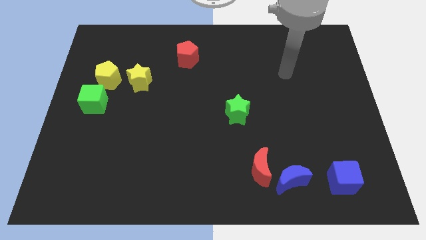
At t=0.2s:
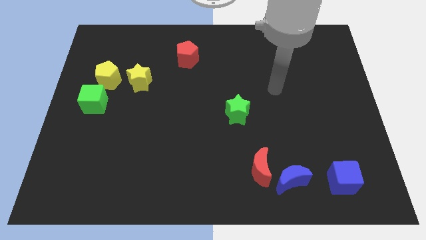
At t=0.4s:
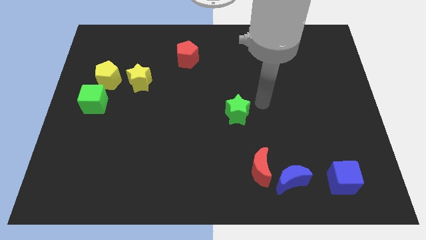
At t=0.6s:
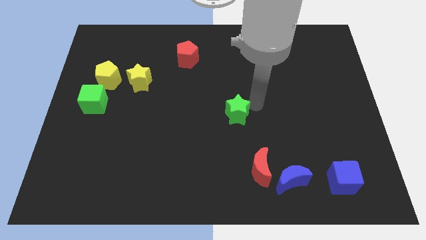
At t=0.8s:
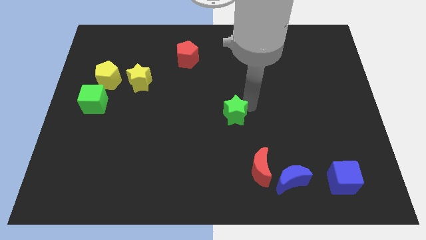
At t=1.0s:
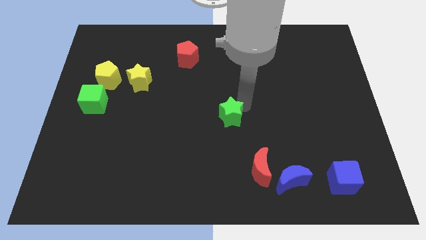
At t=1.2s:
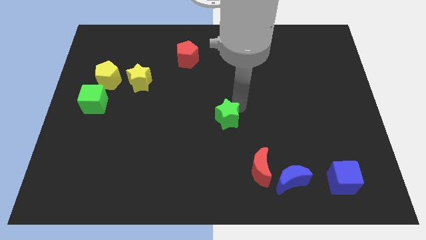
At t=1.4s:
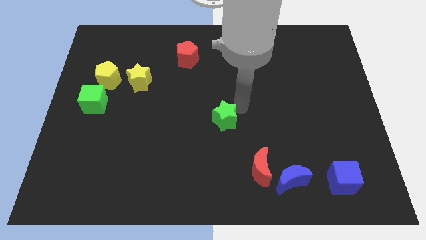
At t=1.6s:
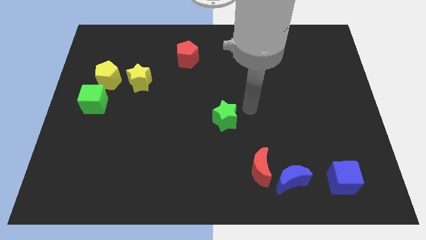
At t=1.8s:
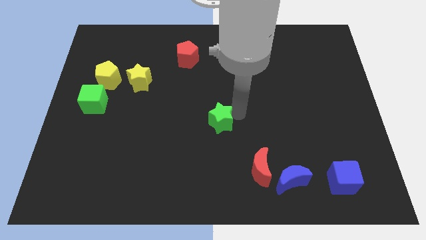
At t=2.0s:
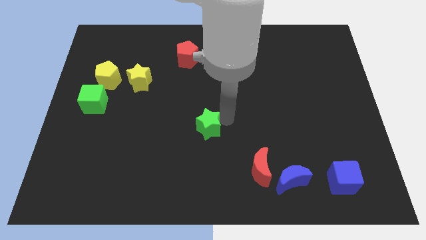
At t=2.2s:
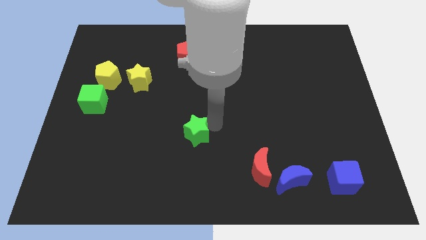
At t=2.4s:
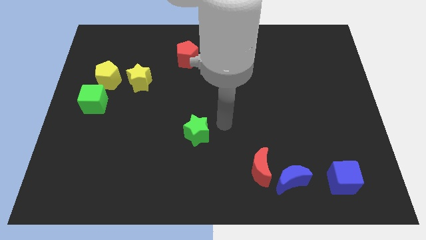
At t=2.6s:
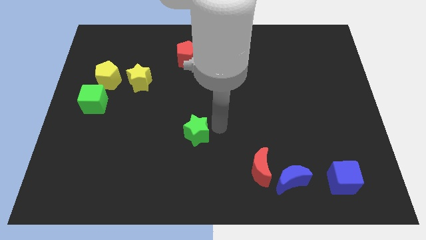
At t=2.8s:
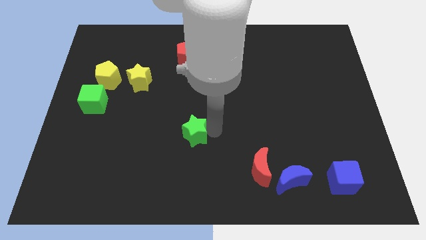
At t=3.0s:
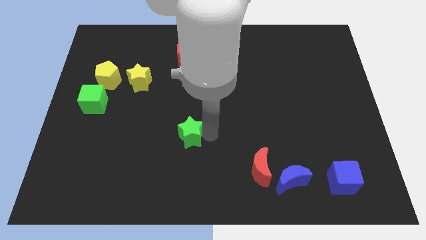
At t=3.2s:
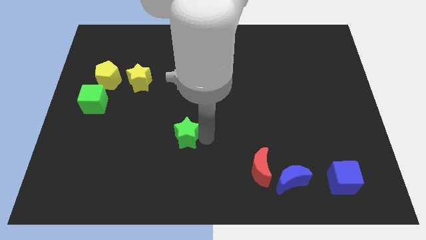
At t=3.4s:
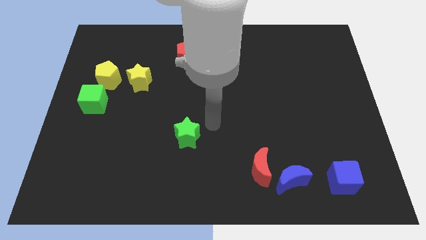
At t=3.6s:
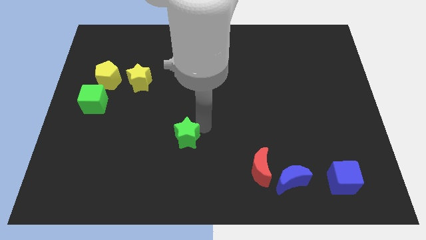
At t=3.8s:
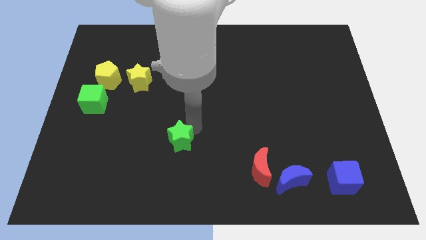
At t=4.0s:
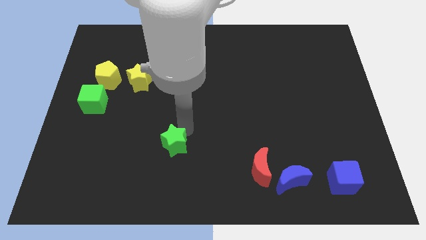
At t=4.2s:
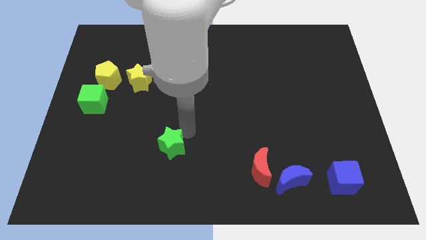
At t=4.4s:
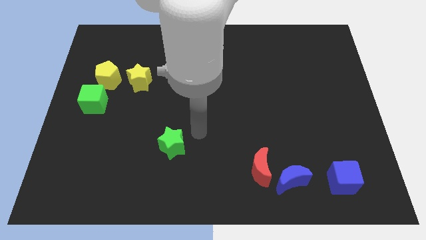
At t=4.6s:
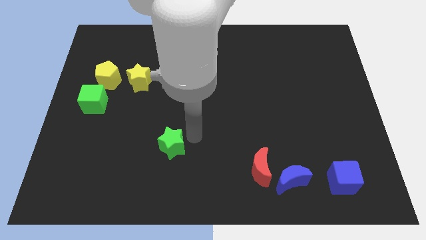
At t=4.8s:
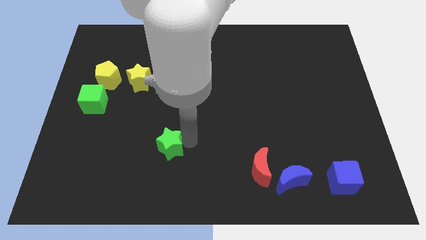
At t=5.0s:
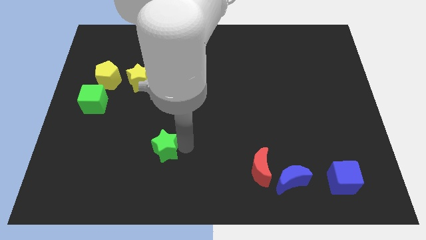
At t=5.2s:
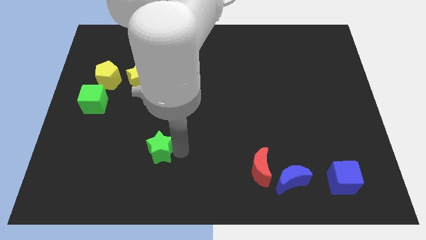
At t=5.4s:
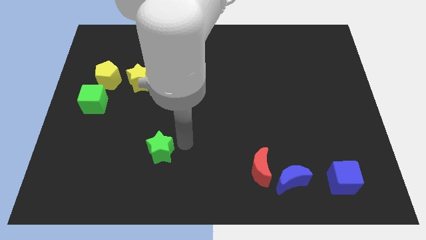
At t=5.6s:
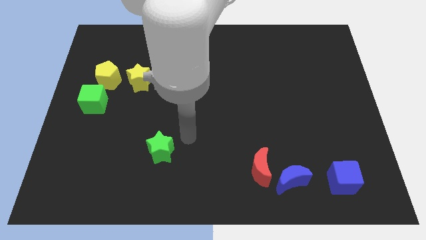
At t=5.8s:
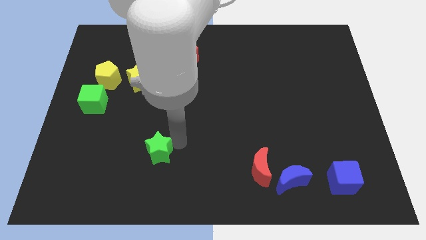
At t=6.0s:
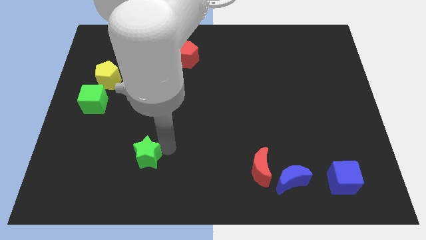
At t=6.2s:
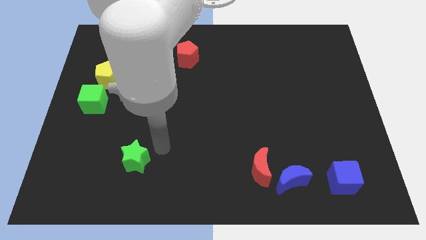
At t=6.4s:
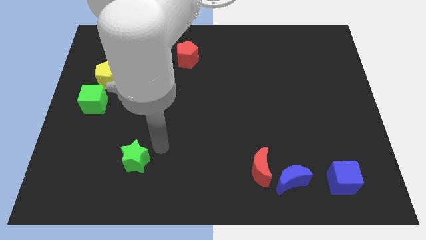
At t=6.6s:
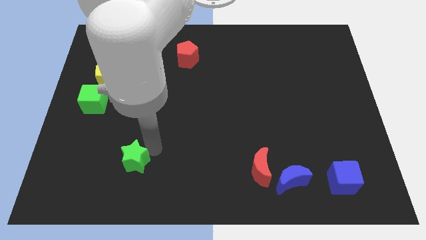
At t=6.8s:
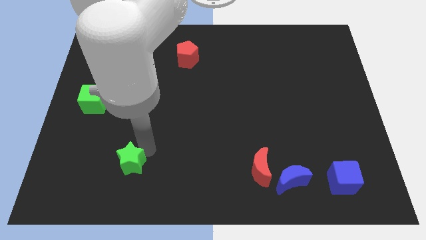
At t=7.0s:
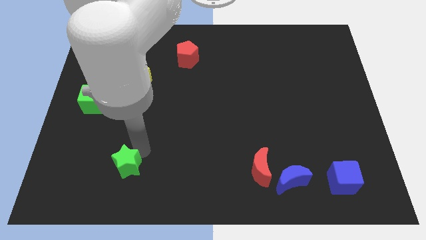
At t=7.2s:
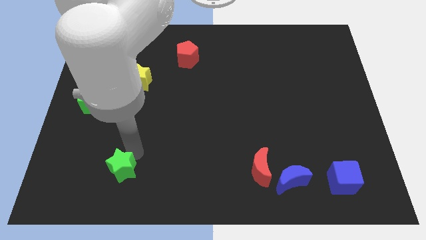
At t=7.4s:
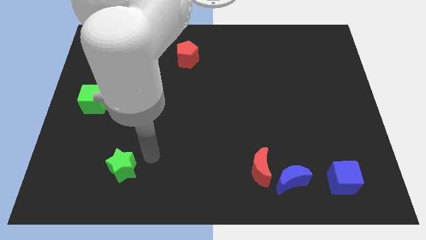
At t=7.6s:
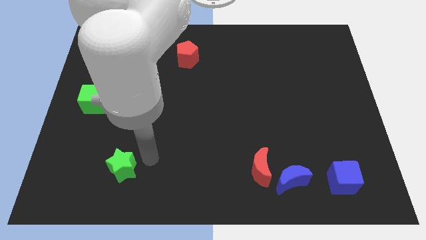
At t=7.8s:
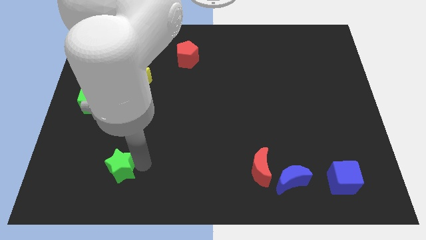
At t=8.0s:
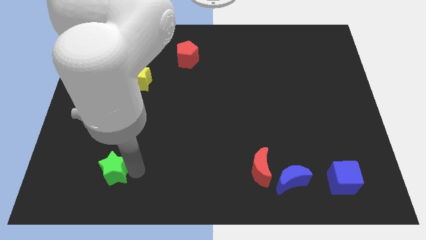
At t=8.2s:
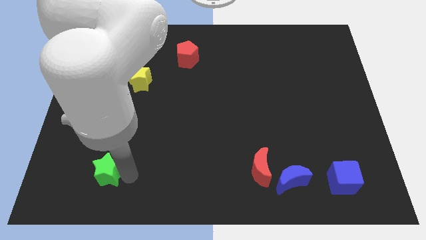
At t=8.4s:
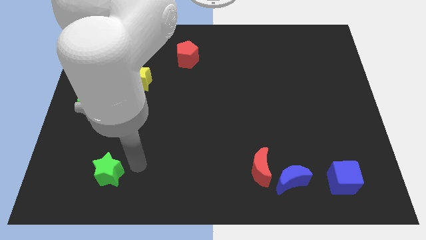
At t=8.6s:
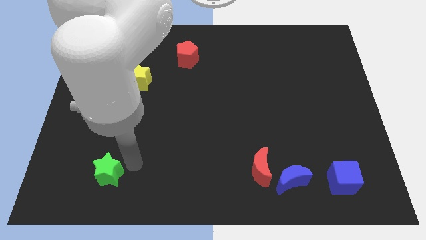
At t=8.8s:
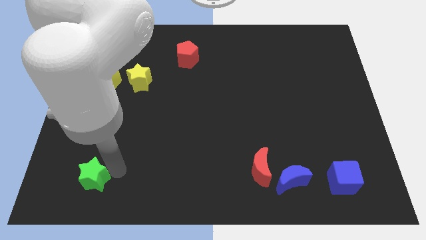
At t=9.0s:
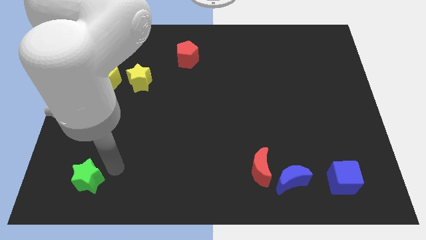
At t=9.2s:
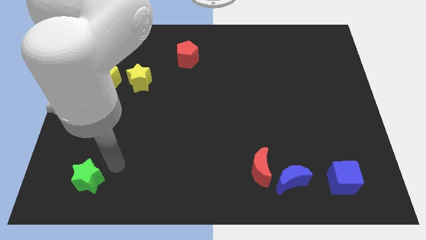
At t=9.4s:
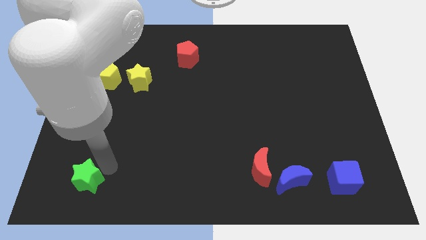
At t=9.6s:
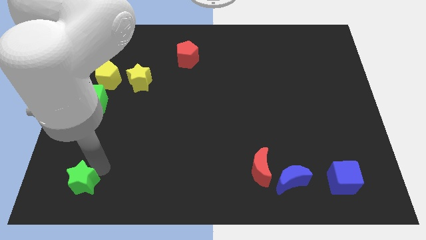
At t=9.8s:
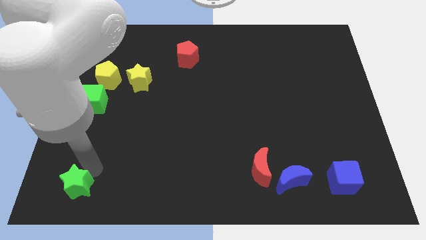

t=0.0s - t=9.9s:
put the green star to the lower left corner

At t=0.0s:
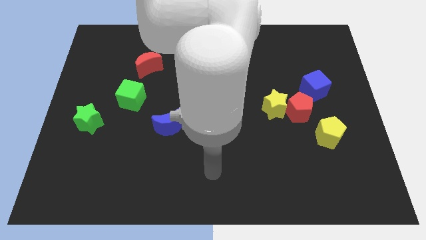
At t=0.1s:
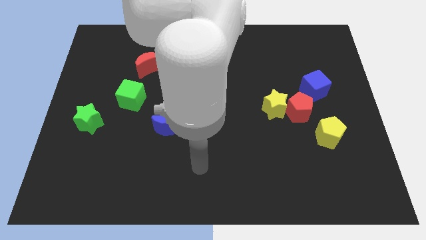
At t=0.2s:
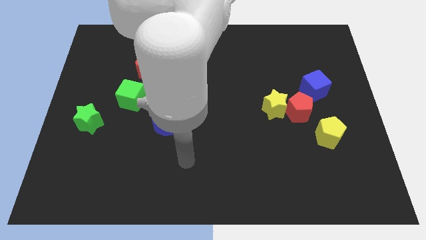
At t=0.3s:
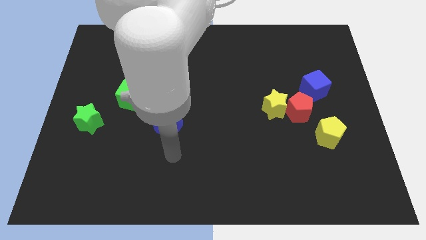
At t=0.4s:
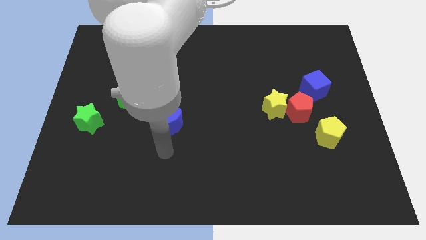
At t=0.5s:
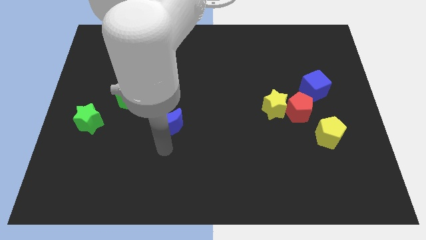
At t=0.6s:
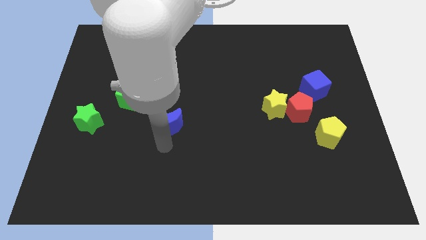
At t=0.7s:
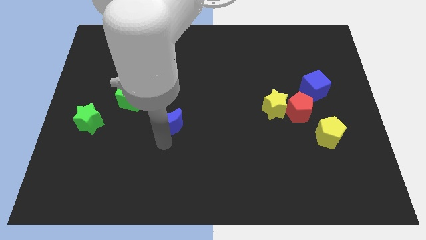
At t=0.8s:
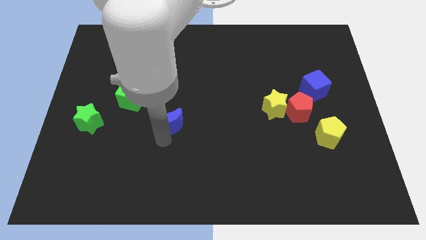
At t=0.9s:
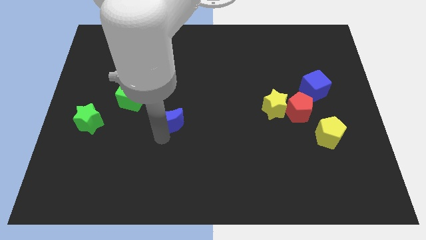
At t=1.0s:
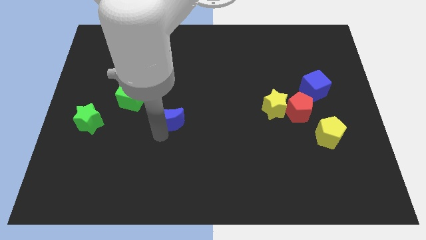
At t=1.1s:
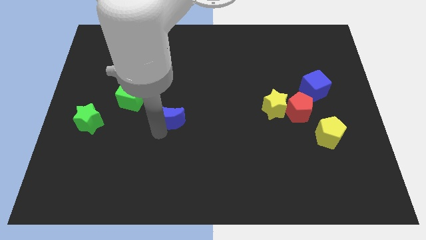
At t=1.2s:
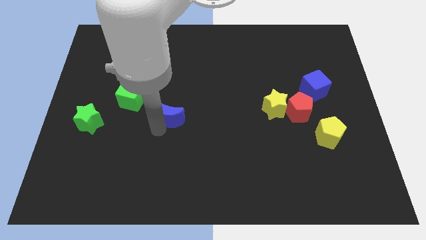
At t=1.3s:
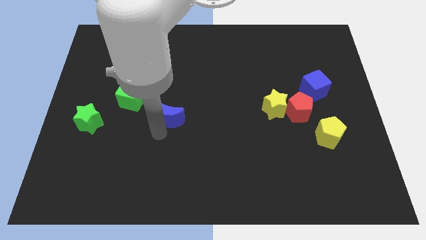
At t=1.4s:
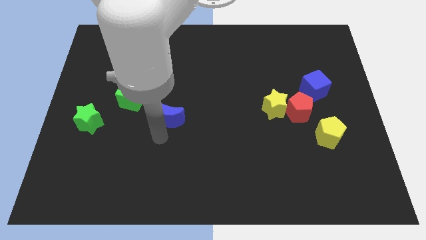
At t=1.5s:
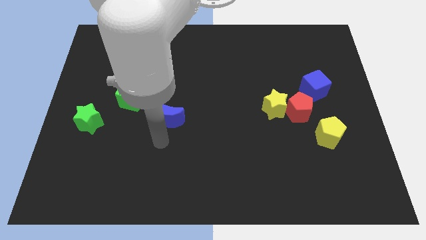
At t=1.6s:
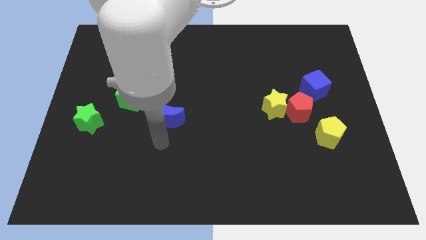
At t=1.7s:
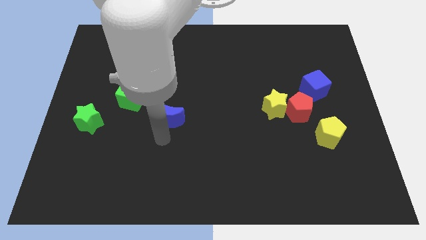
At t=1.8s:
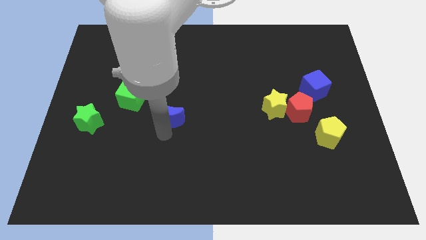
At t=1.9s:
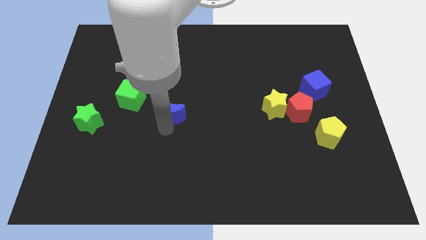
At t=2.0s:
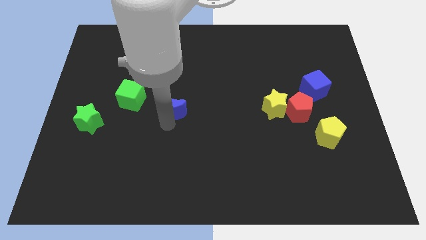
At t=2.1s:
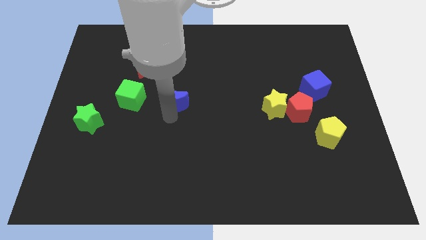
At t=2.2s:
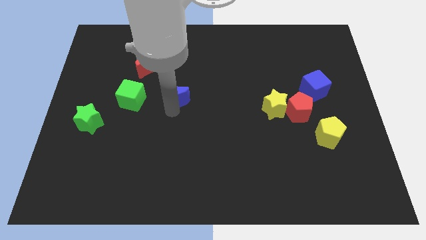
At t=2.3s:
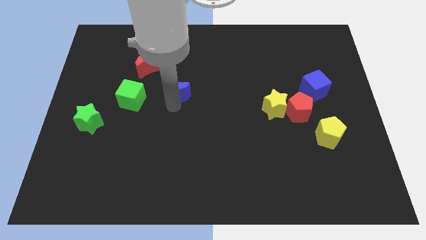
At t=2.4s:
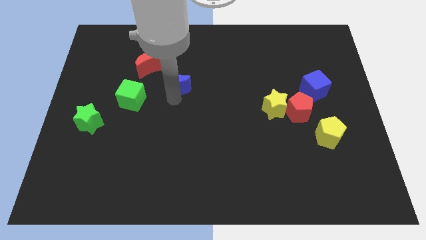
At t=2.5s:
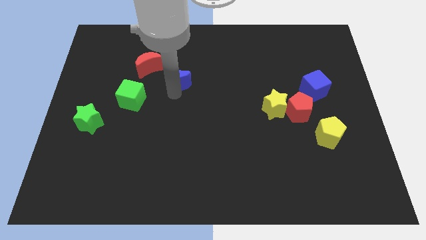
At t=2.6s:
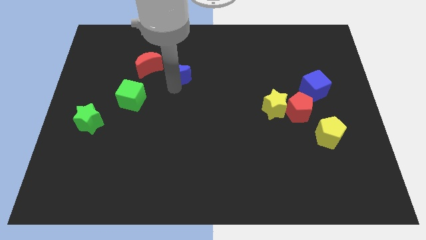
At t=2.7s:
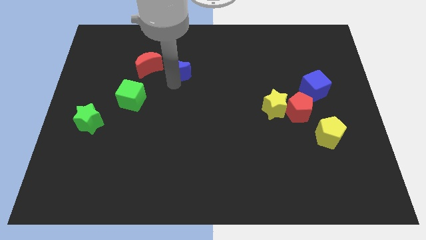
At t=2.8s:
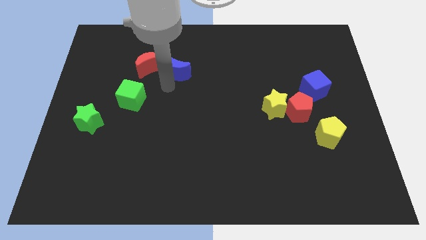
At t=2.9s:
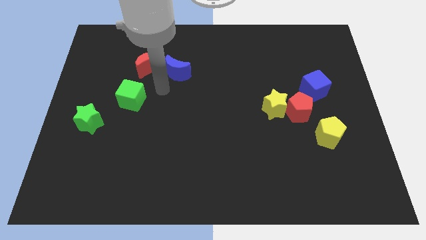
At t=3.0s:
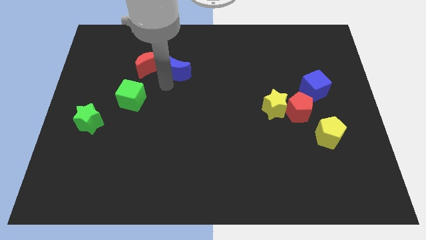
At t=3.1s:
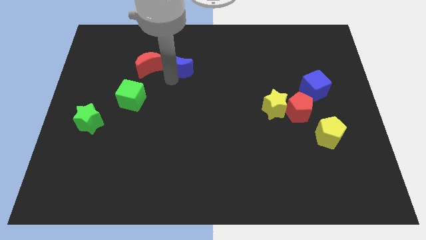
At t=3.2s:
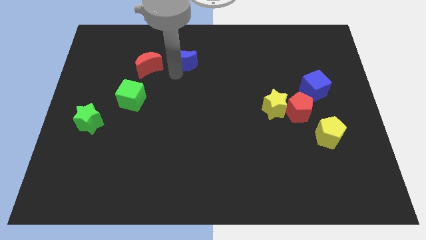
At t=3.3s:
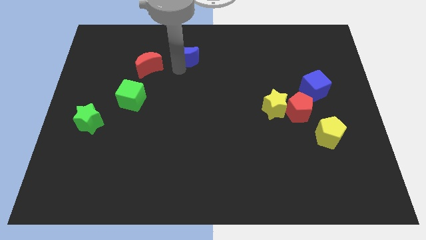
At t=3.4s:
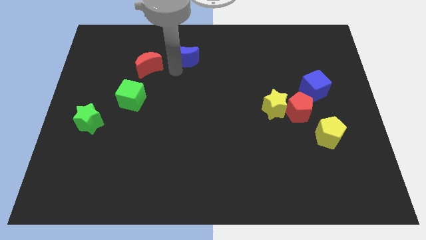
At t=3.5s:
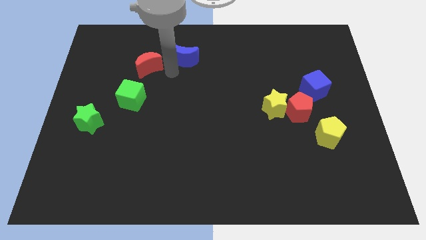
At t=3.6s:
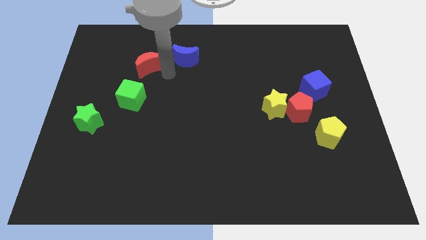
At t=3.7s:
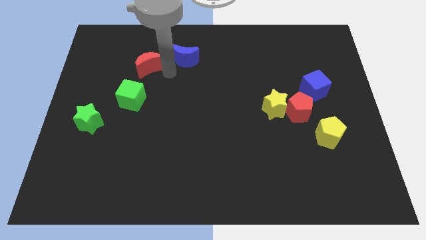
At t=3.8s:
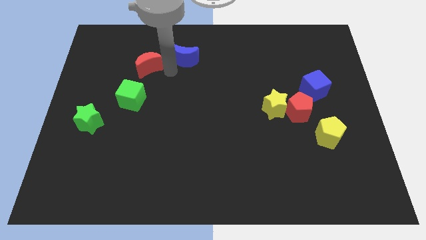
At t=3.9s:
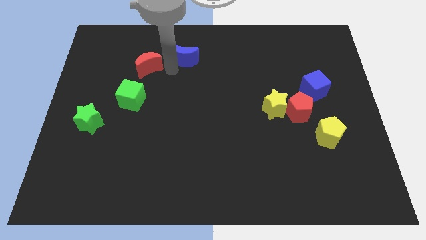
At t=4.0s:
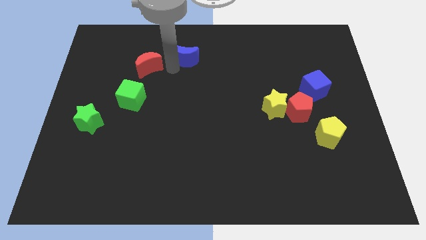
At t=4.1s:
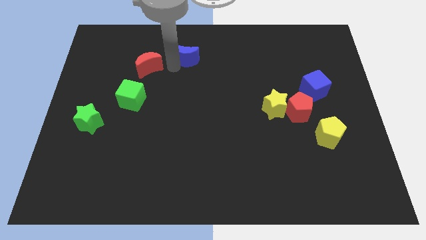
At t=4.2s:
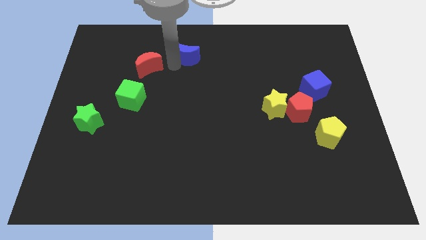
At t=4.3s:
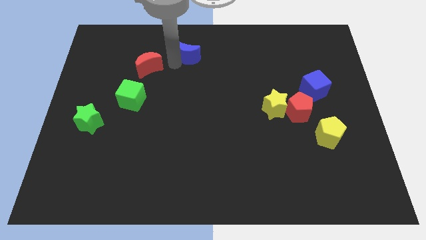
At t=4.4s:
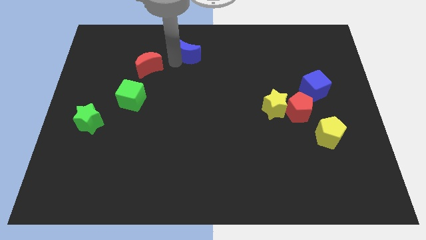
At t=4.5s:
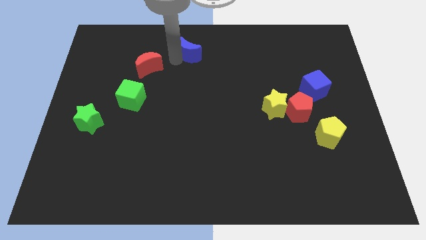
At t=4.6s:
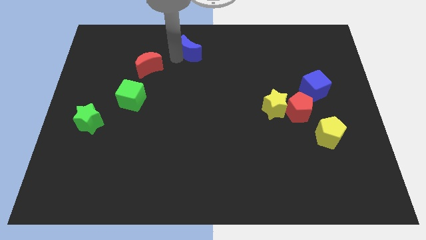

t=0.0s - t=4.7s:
move the blue moon to the top side
